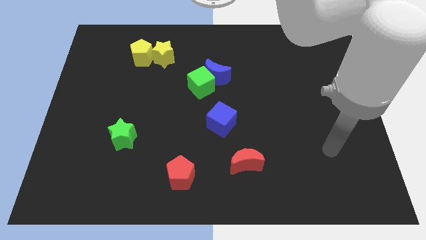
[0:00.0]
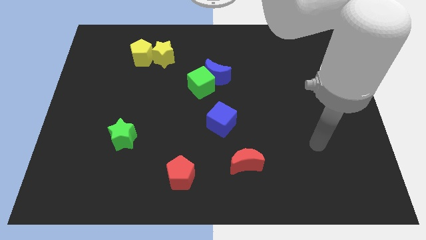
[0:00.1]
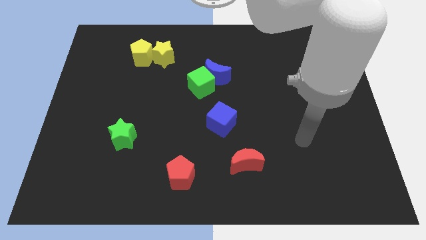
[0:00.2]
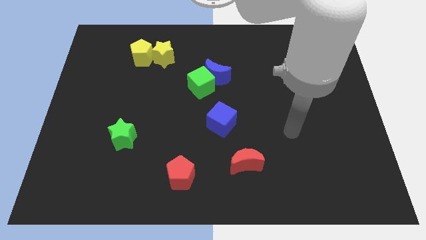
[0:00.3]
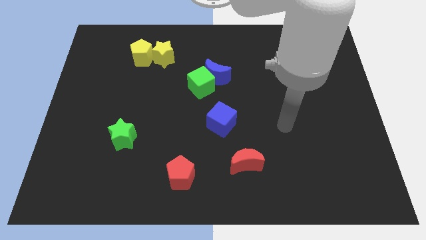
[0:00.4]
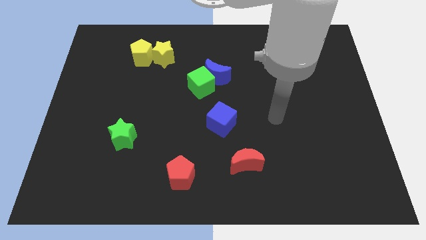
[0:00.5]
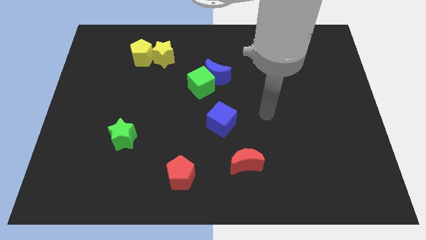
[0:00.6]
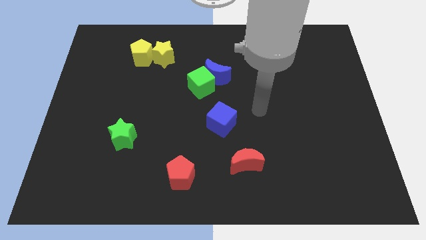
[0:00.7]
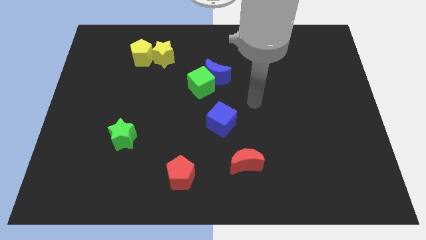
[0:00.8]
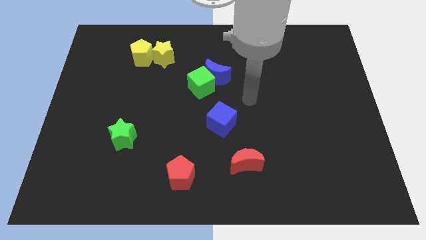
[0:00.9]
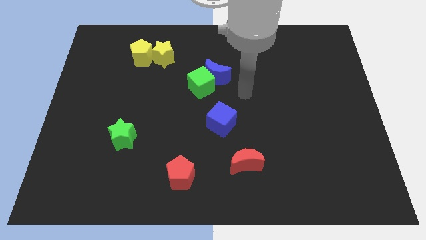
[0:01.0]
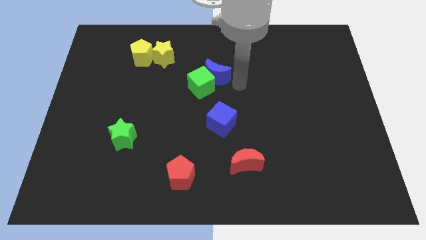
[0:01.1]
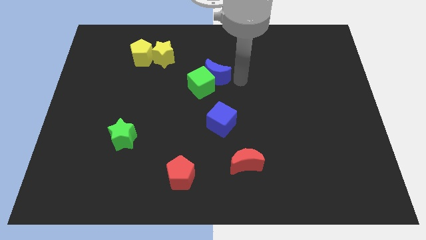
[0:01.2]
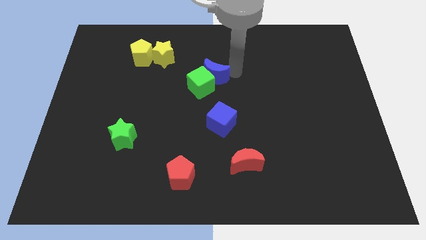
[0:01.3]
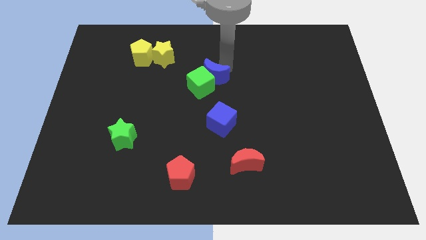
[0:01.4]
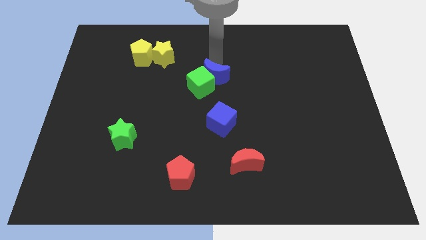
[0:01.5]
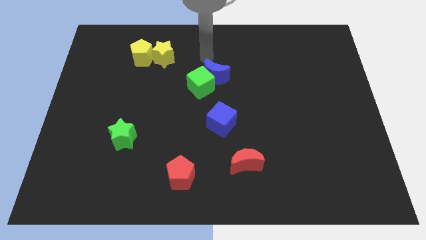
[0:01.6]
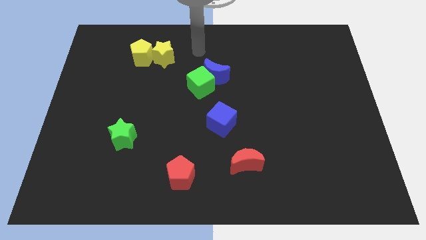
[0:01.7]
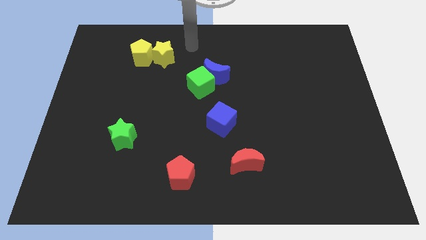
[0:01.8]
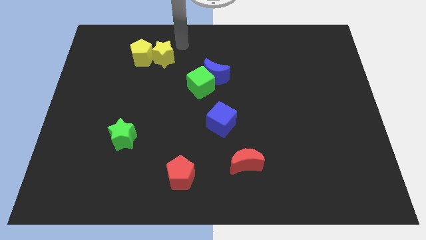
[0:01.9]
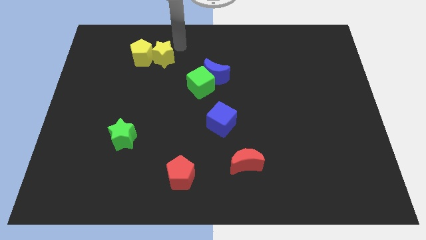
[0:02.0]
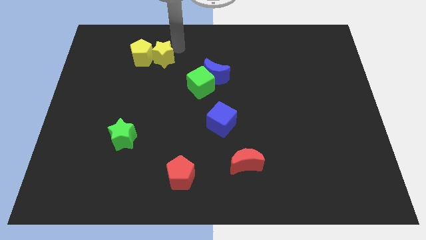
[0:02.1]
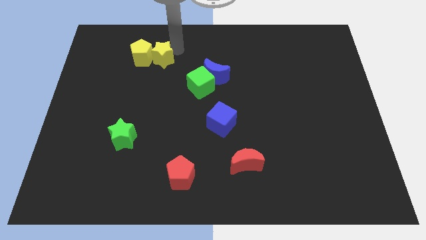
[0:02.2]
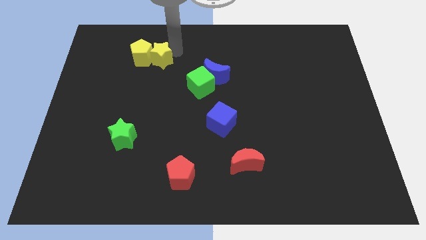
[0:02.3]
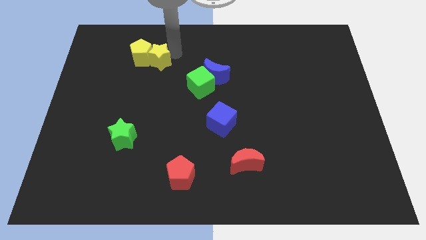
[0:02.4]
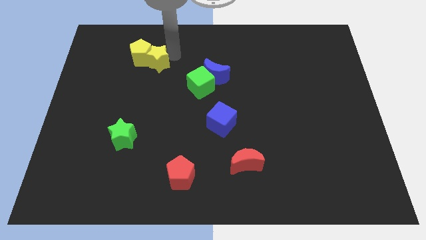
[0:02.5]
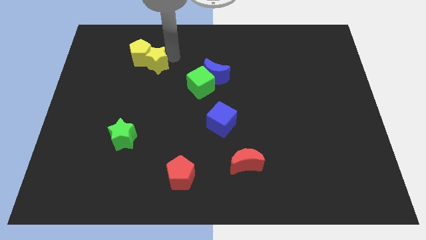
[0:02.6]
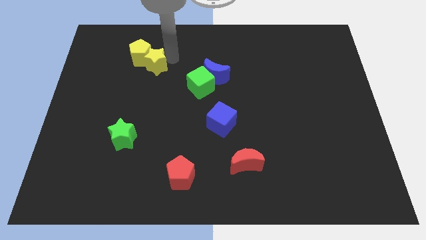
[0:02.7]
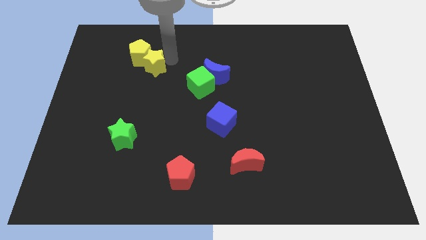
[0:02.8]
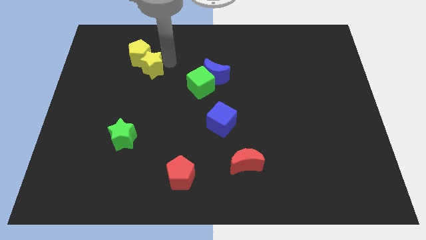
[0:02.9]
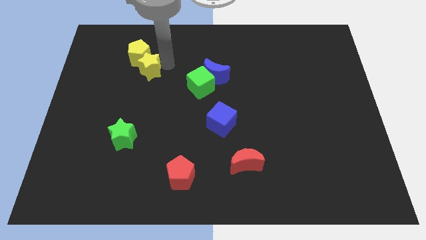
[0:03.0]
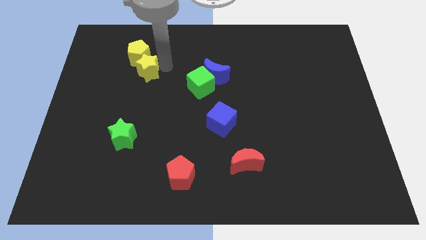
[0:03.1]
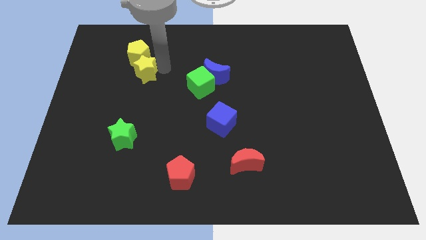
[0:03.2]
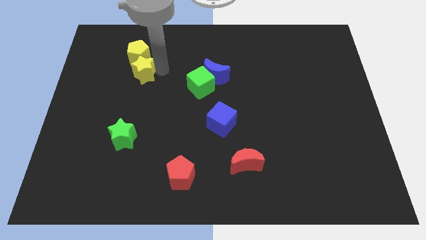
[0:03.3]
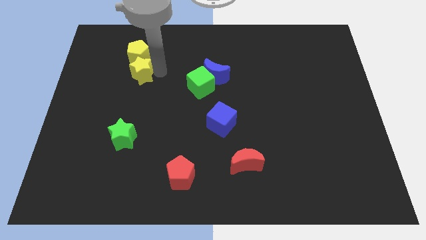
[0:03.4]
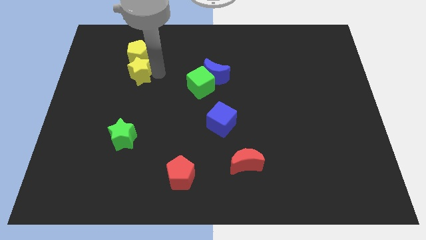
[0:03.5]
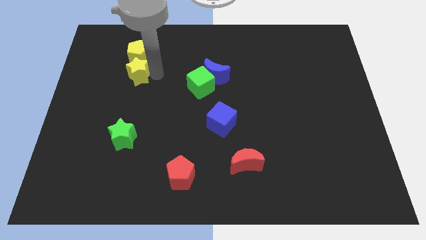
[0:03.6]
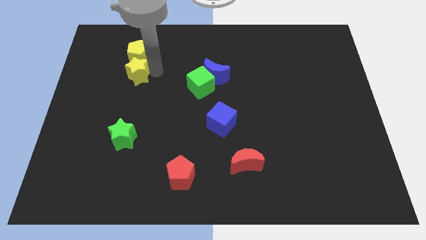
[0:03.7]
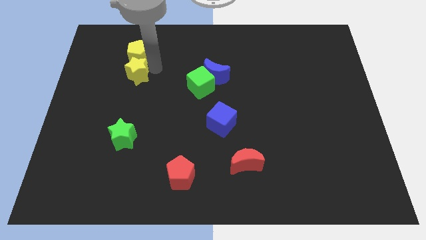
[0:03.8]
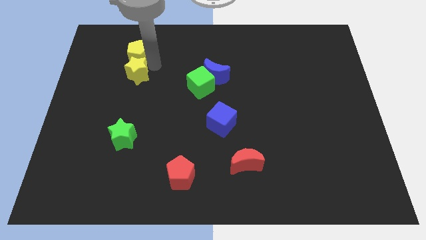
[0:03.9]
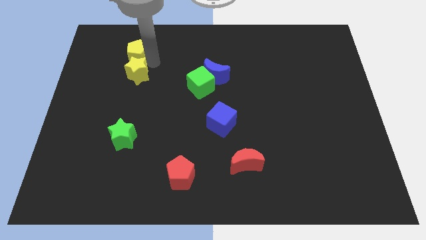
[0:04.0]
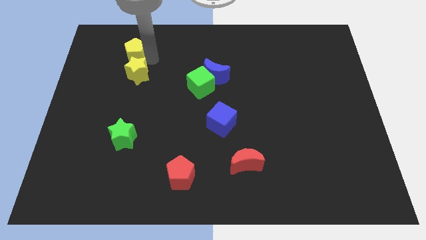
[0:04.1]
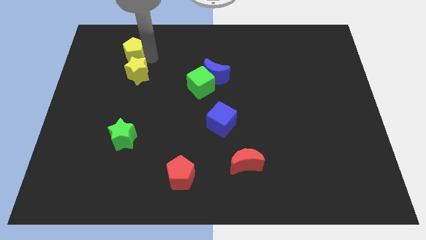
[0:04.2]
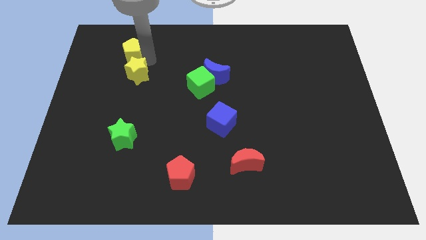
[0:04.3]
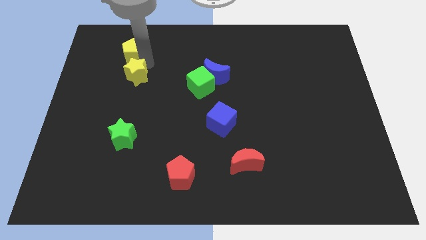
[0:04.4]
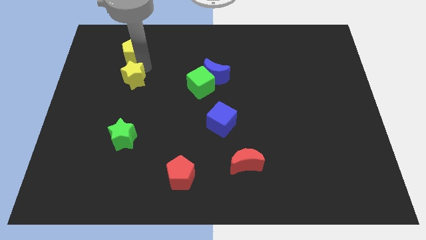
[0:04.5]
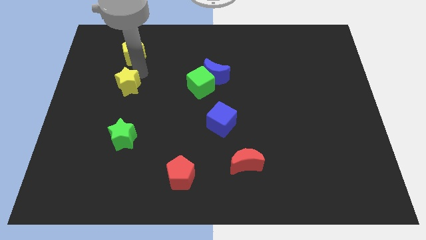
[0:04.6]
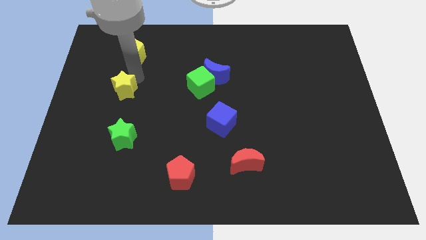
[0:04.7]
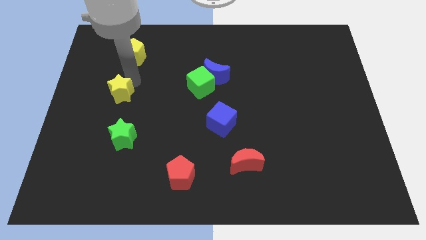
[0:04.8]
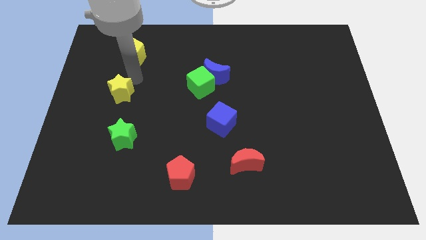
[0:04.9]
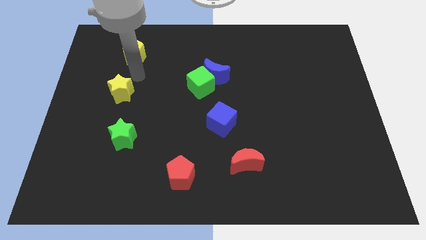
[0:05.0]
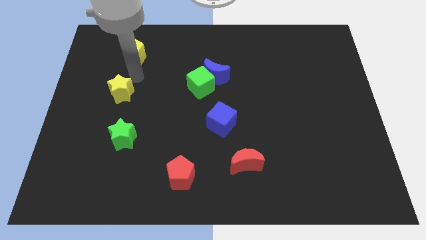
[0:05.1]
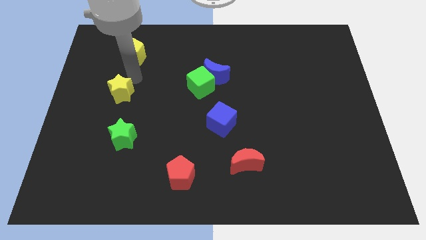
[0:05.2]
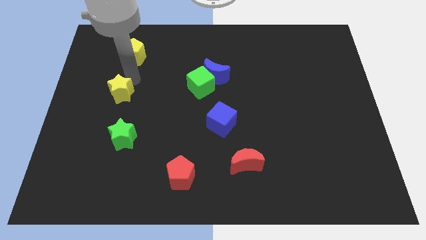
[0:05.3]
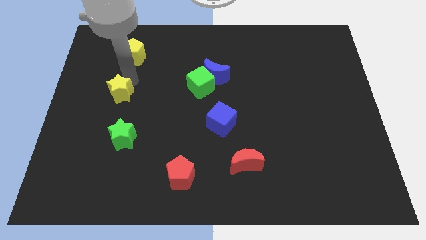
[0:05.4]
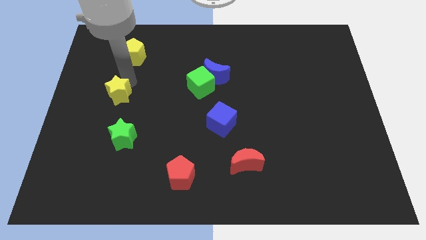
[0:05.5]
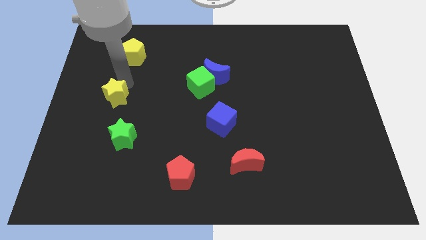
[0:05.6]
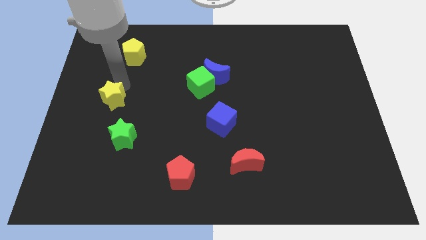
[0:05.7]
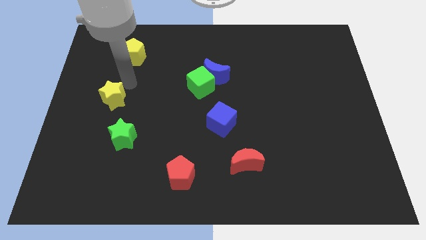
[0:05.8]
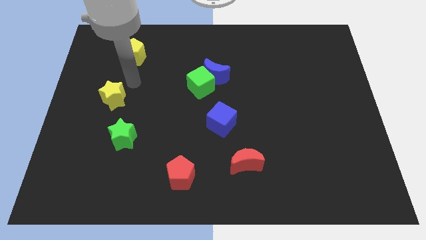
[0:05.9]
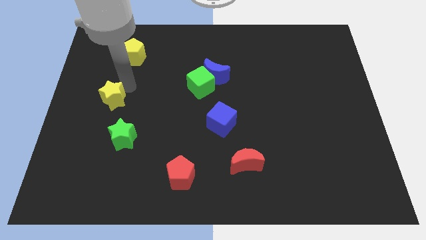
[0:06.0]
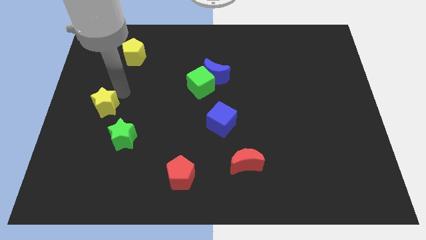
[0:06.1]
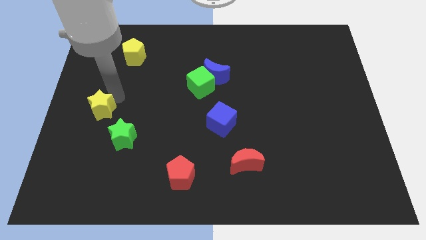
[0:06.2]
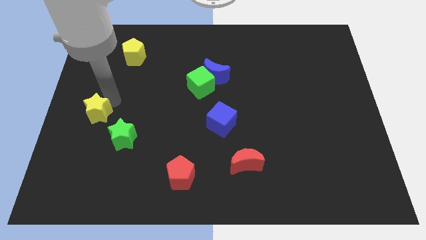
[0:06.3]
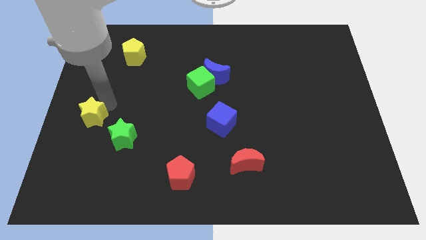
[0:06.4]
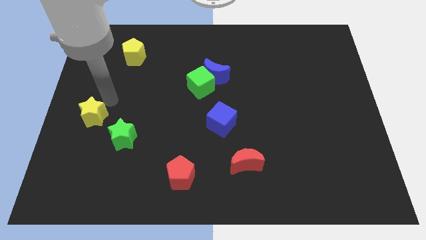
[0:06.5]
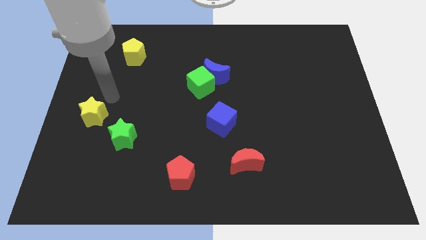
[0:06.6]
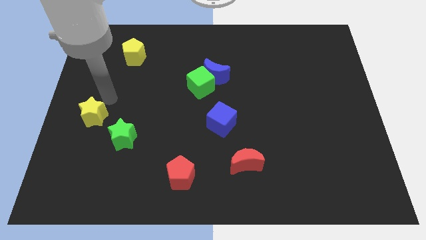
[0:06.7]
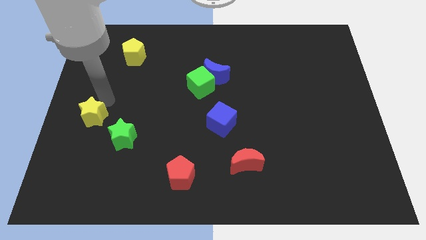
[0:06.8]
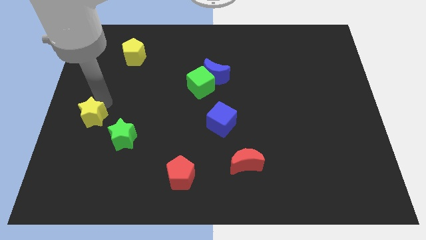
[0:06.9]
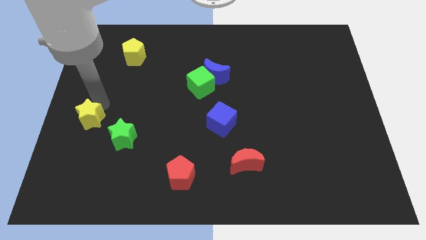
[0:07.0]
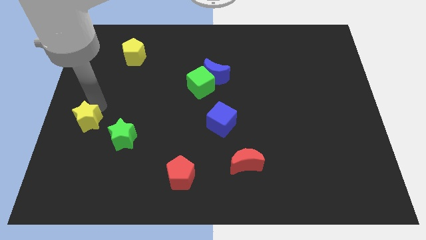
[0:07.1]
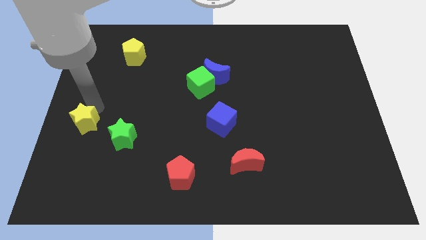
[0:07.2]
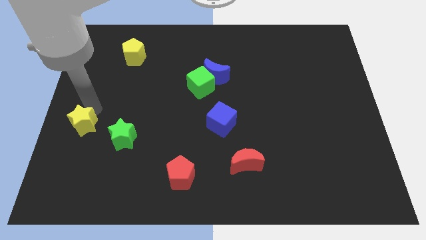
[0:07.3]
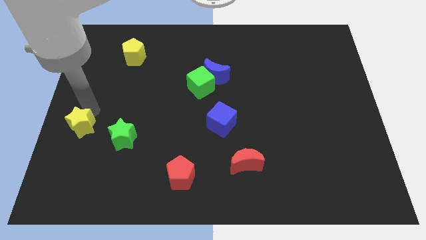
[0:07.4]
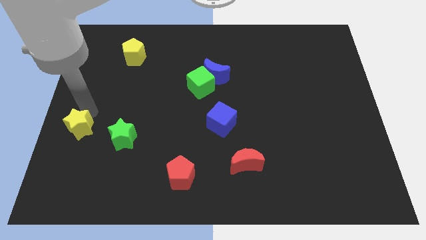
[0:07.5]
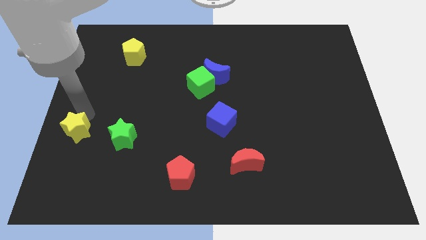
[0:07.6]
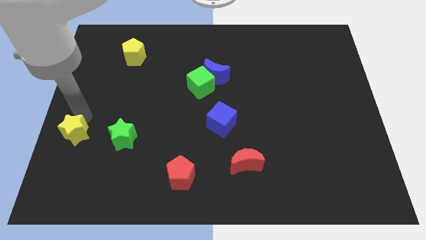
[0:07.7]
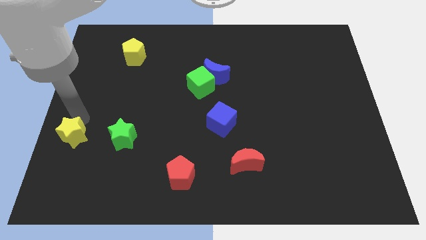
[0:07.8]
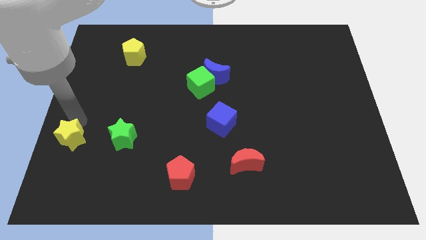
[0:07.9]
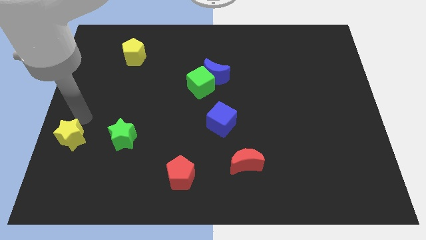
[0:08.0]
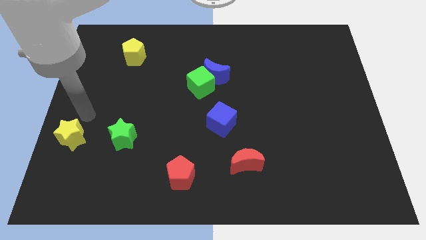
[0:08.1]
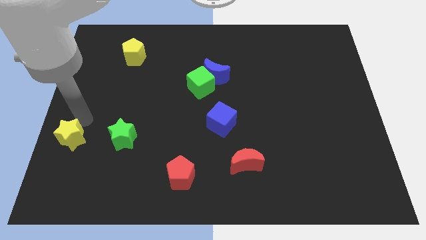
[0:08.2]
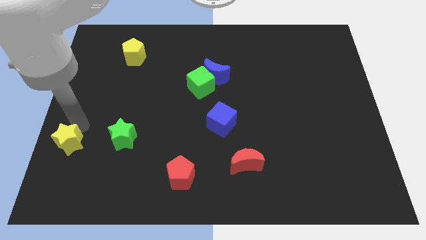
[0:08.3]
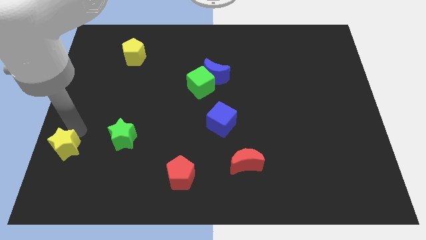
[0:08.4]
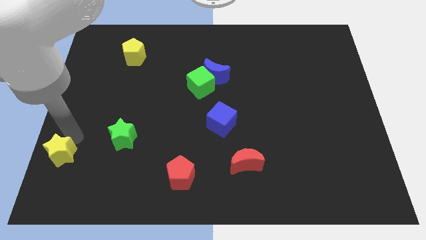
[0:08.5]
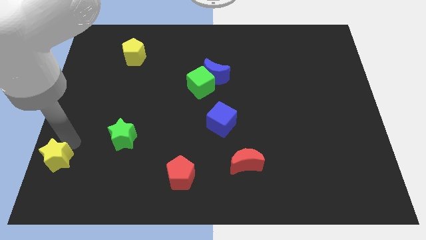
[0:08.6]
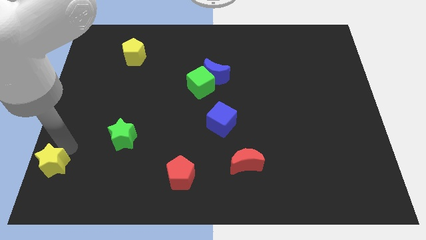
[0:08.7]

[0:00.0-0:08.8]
slide the yellow star to the lower left corner
